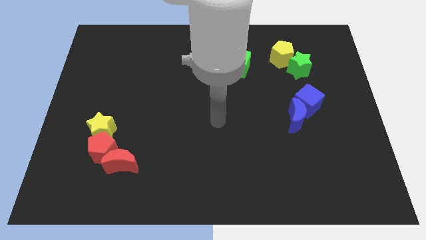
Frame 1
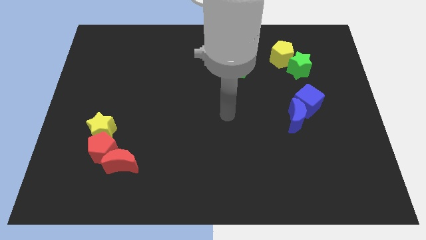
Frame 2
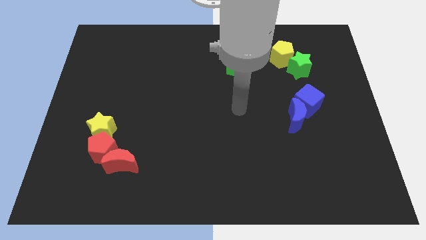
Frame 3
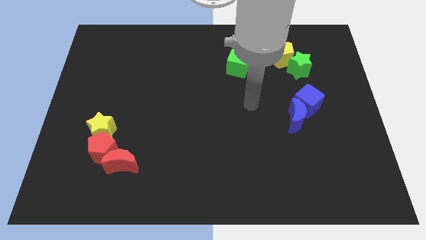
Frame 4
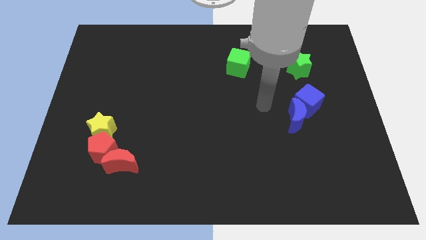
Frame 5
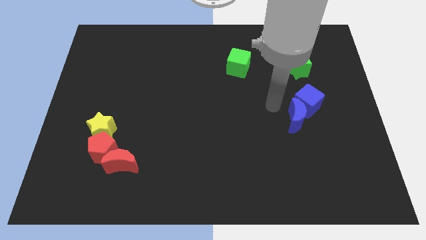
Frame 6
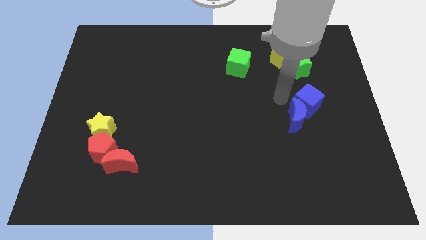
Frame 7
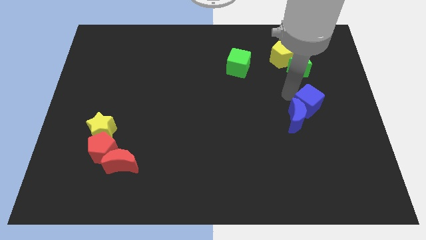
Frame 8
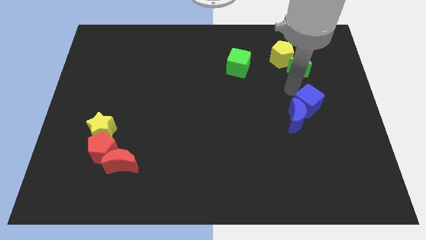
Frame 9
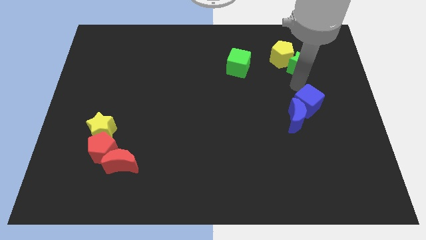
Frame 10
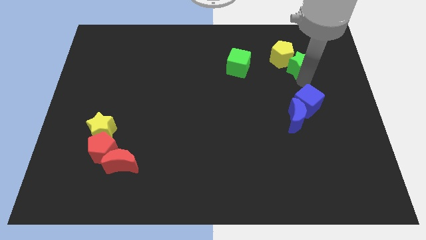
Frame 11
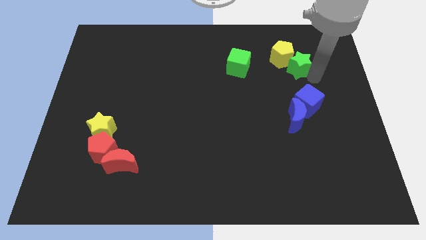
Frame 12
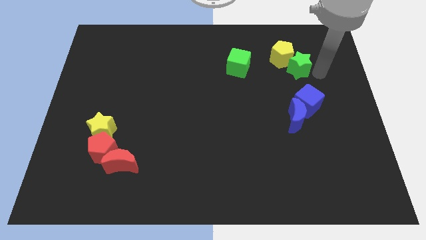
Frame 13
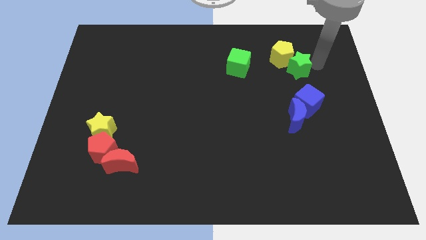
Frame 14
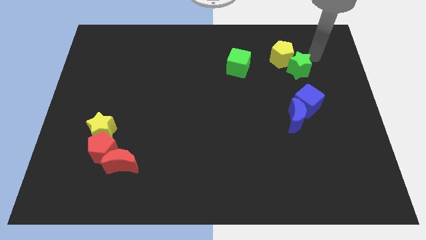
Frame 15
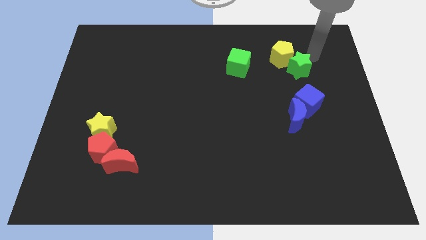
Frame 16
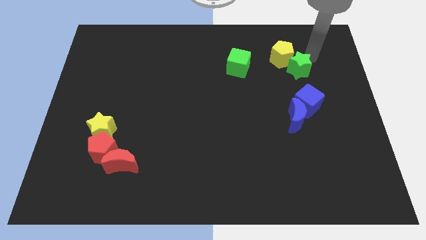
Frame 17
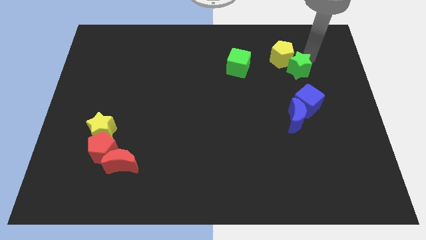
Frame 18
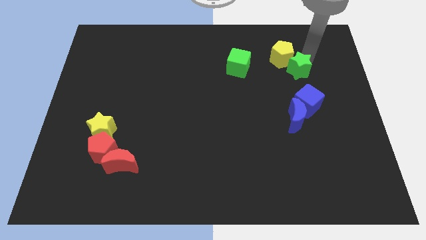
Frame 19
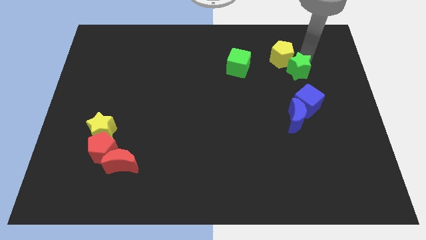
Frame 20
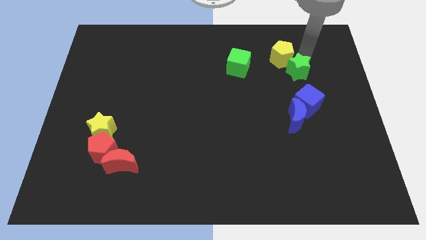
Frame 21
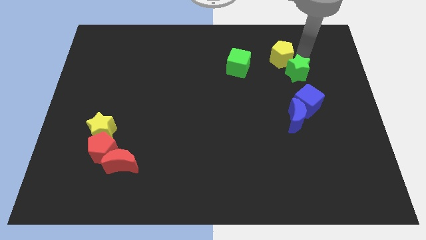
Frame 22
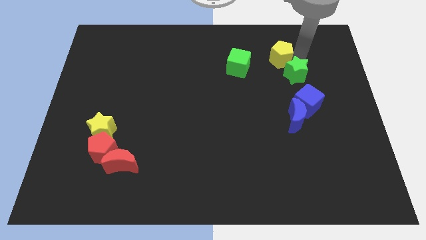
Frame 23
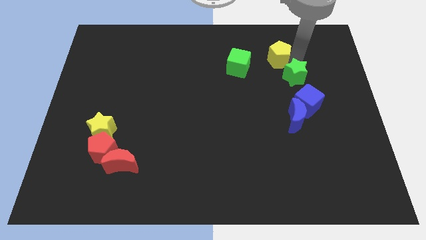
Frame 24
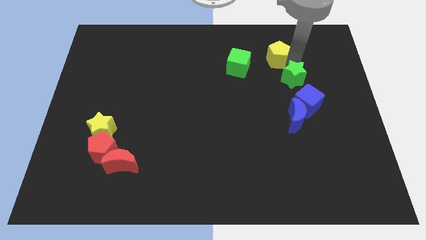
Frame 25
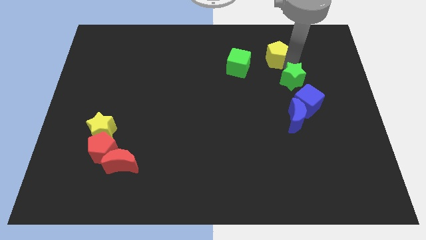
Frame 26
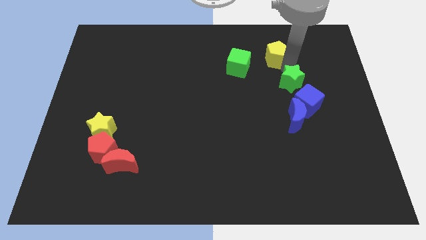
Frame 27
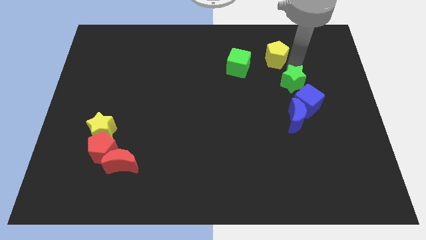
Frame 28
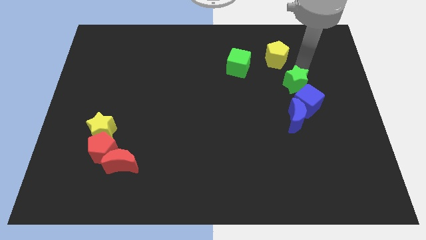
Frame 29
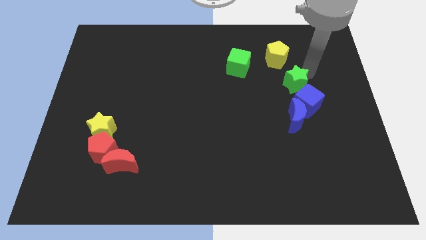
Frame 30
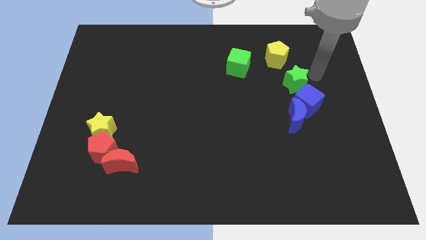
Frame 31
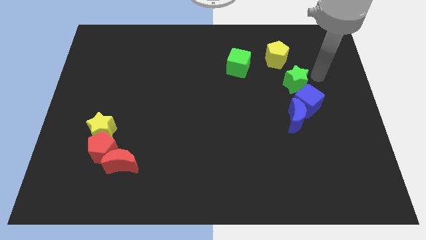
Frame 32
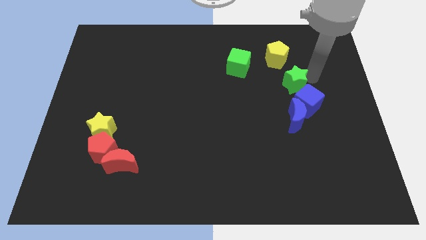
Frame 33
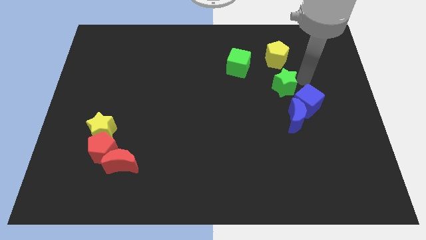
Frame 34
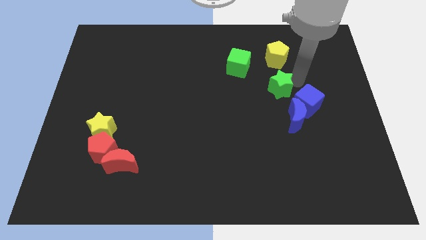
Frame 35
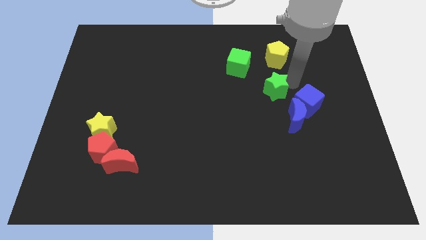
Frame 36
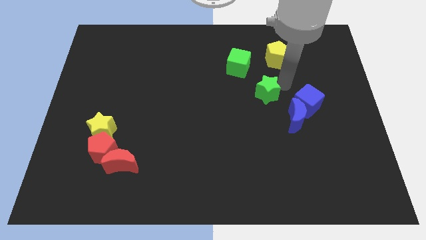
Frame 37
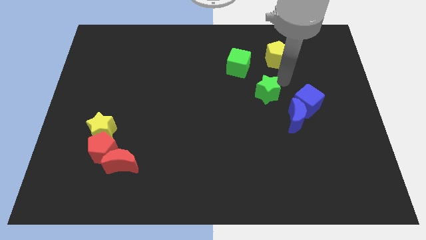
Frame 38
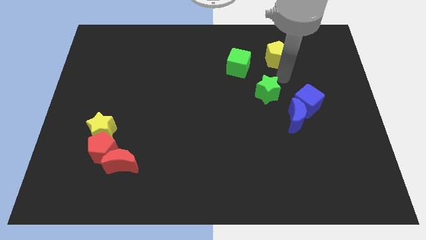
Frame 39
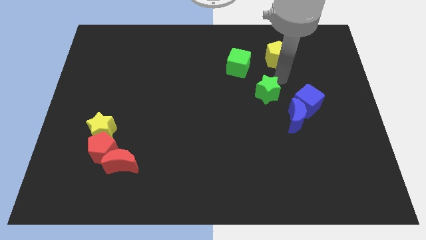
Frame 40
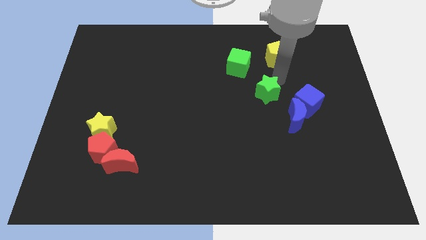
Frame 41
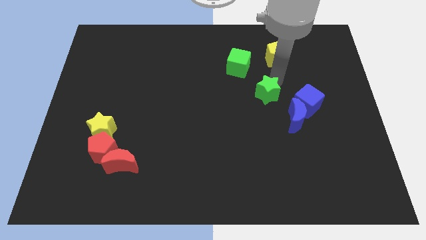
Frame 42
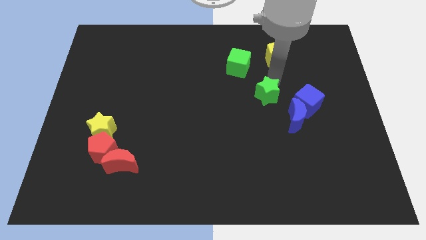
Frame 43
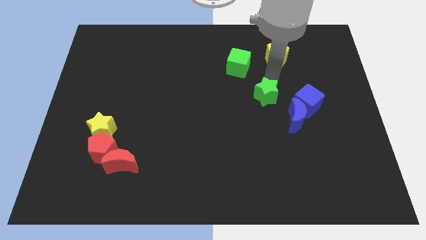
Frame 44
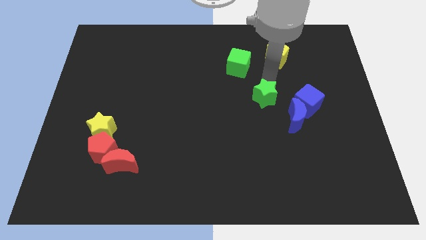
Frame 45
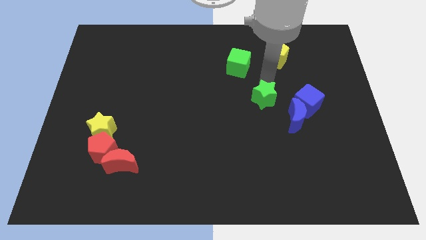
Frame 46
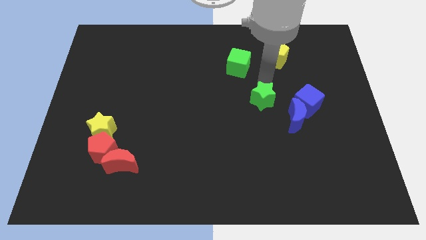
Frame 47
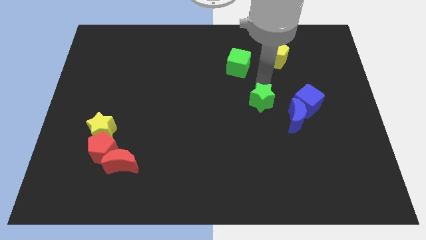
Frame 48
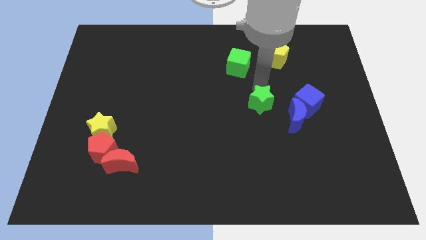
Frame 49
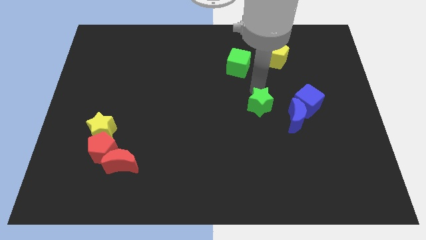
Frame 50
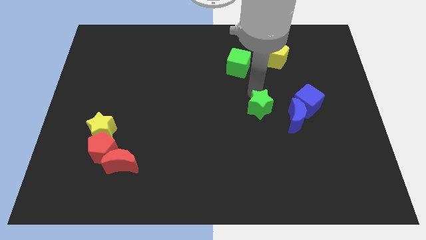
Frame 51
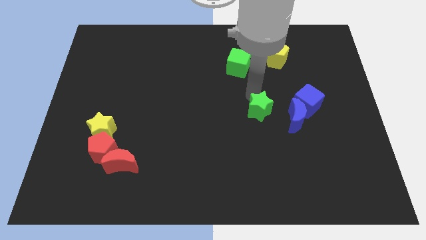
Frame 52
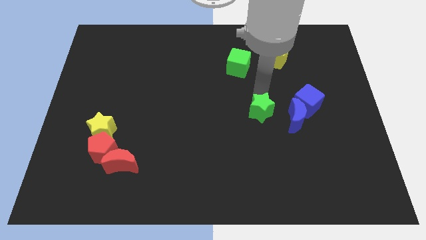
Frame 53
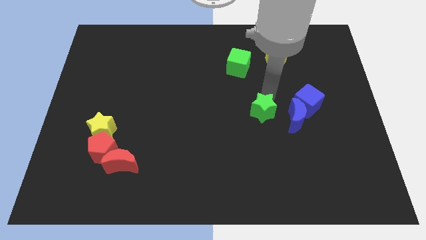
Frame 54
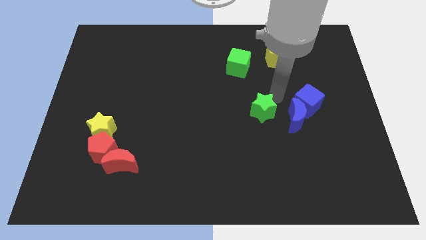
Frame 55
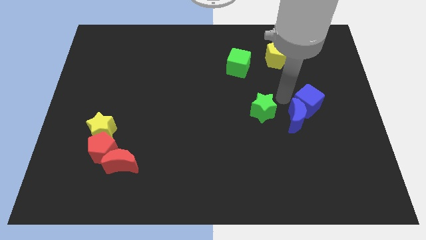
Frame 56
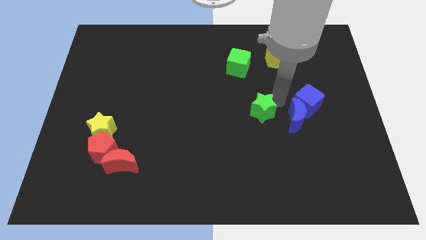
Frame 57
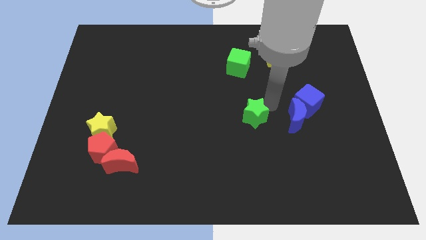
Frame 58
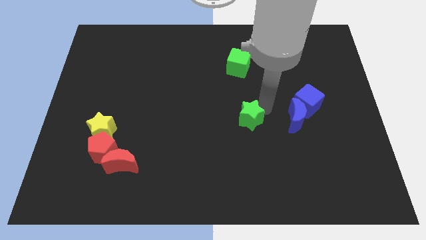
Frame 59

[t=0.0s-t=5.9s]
move the green star down and left diagonally

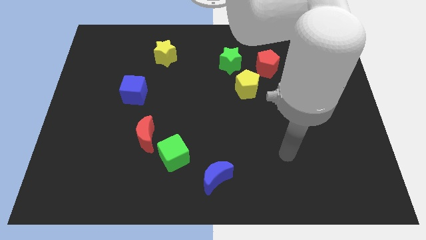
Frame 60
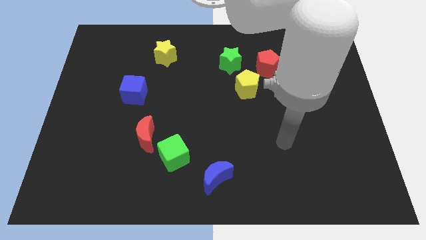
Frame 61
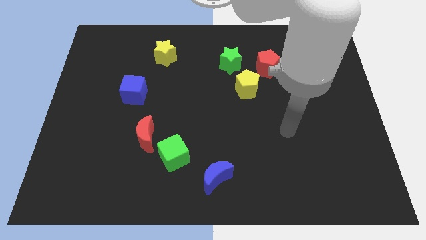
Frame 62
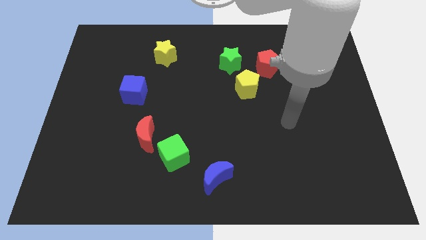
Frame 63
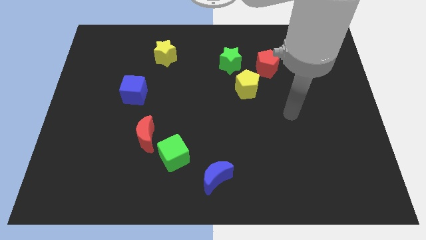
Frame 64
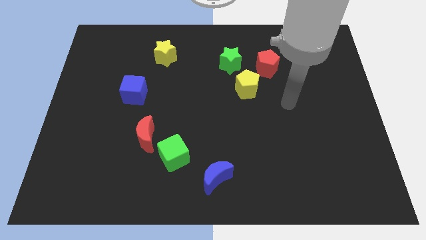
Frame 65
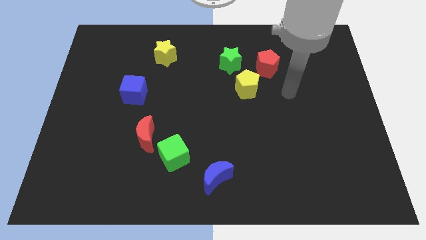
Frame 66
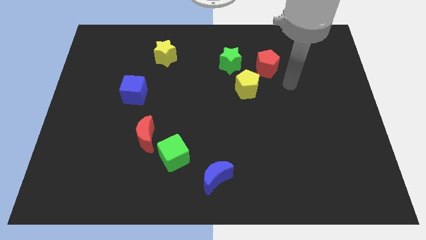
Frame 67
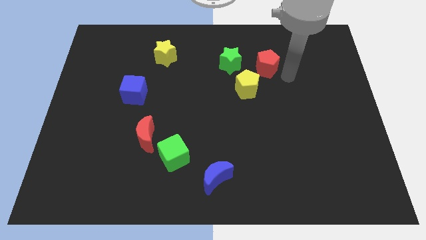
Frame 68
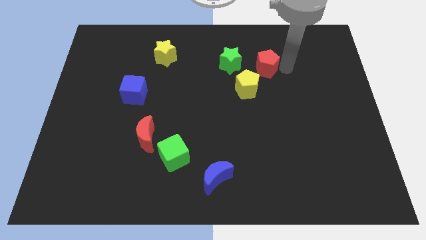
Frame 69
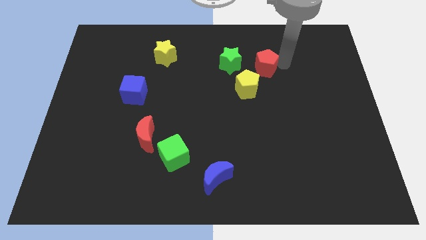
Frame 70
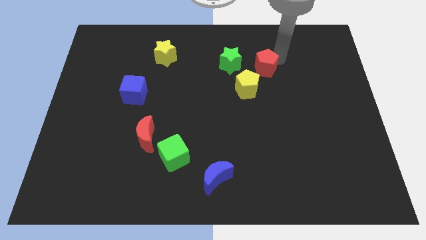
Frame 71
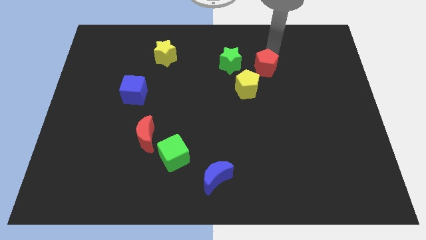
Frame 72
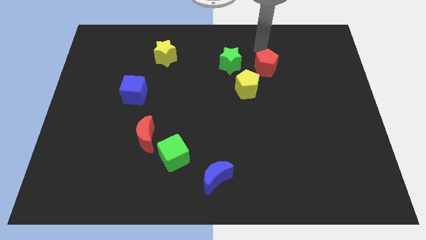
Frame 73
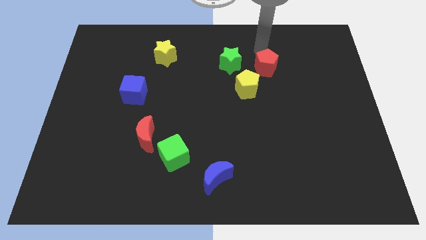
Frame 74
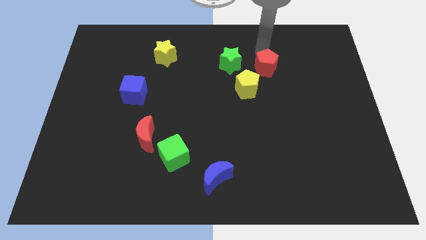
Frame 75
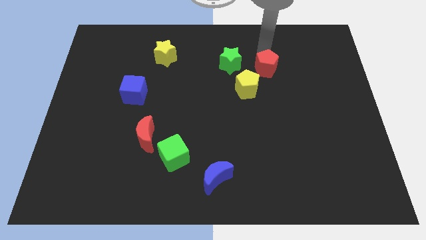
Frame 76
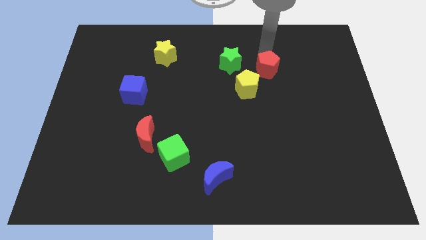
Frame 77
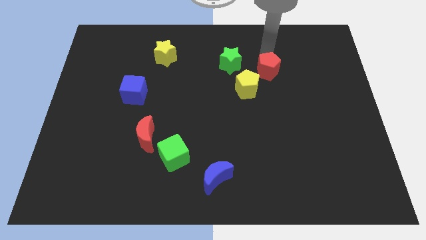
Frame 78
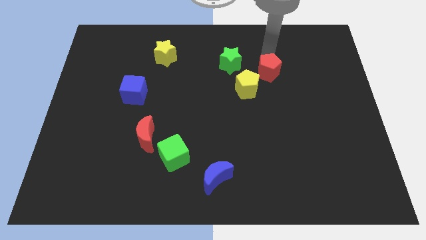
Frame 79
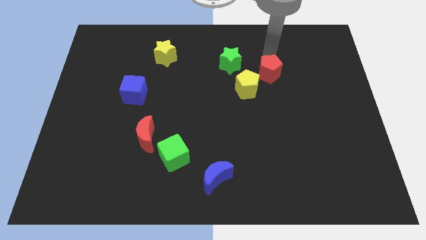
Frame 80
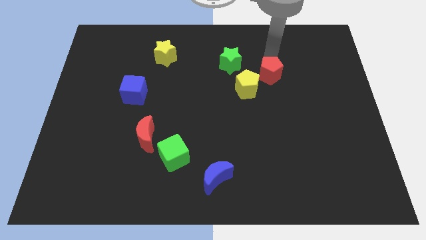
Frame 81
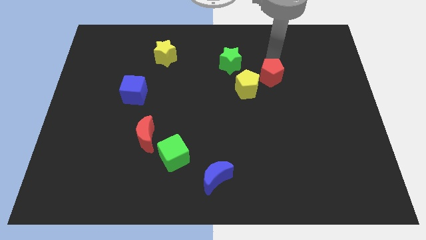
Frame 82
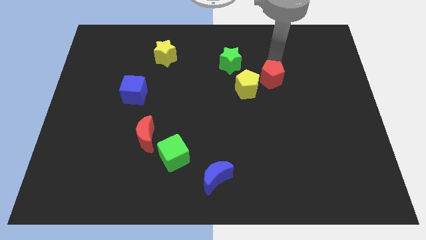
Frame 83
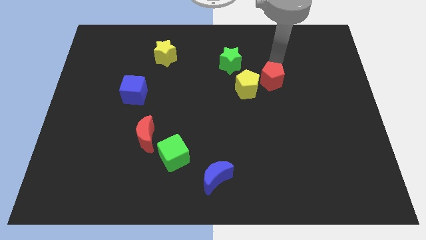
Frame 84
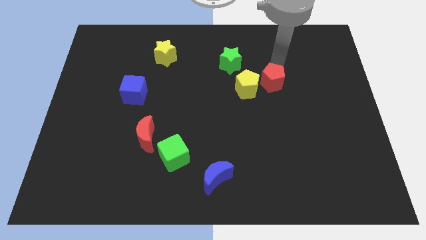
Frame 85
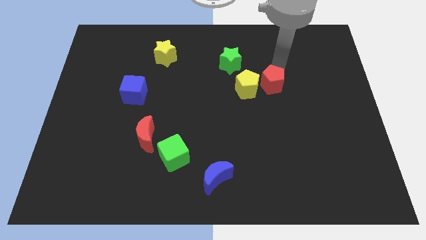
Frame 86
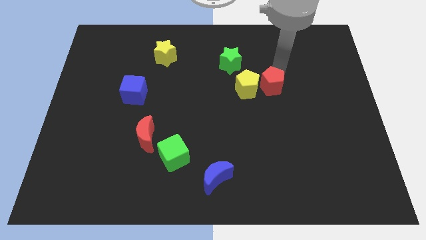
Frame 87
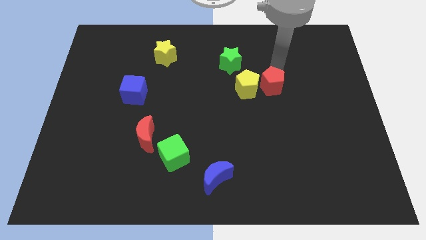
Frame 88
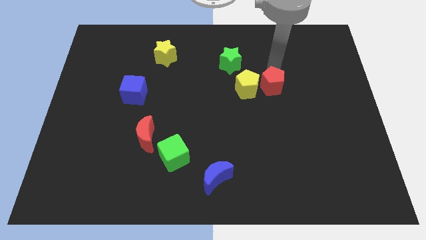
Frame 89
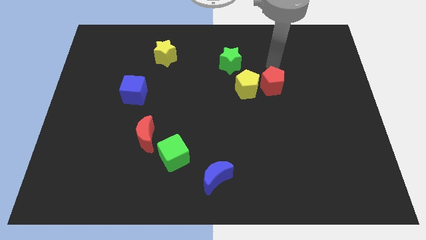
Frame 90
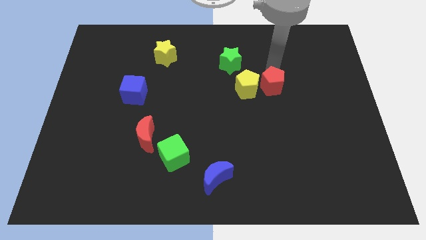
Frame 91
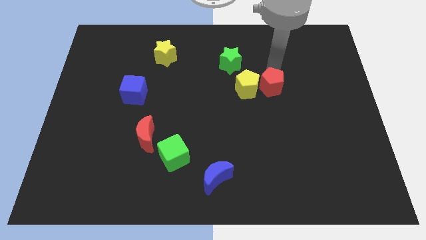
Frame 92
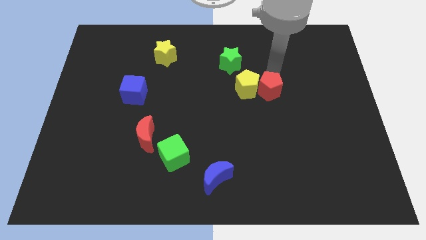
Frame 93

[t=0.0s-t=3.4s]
move the red pentagon down slightly
